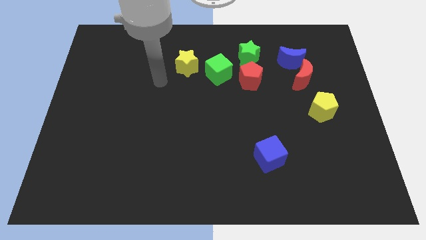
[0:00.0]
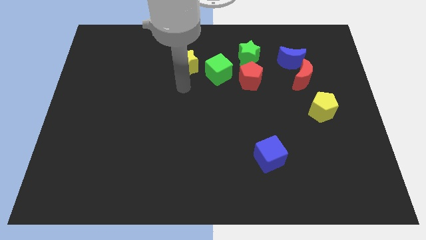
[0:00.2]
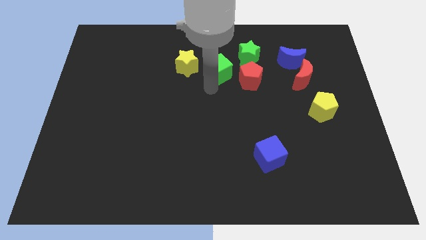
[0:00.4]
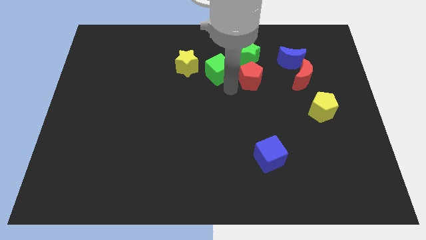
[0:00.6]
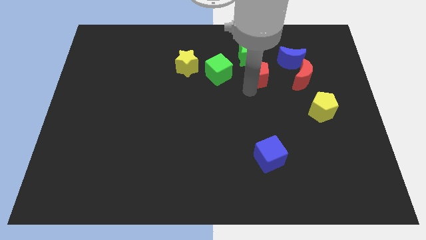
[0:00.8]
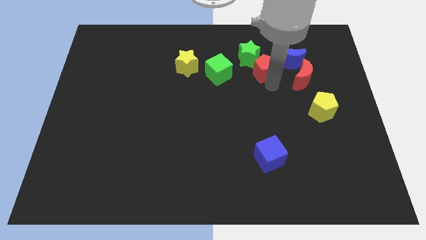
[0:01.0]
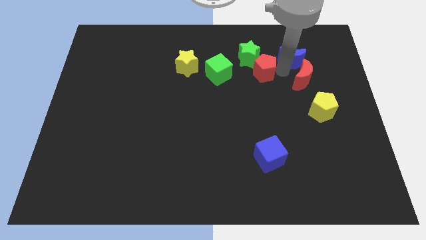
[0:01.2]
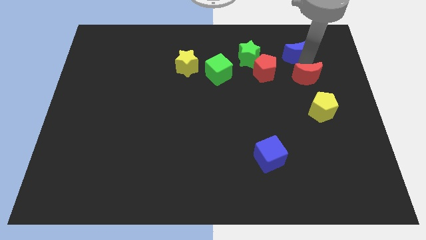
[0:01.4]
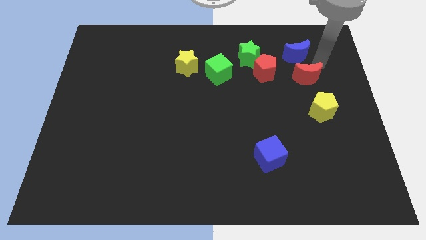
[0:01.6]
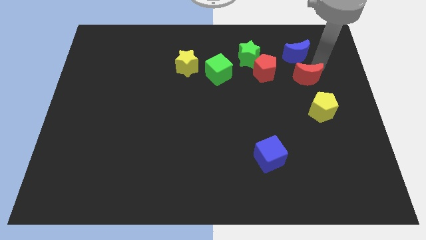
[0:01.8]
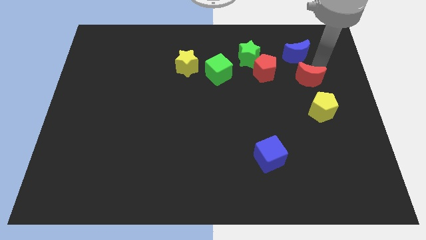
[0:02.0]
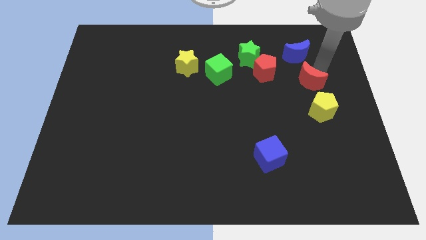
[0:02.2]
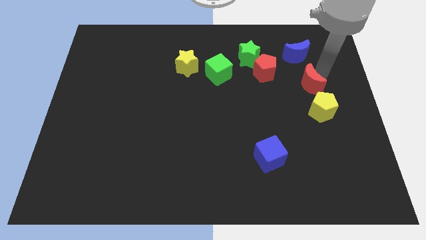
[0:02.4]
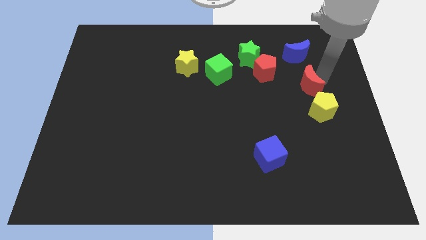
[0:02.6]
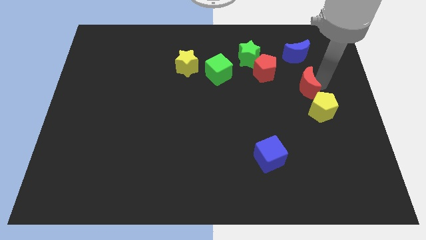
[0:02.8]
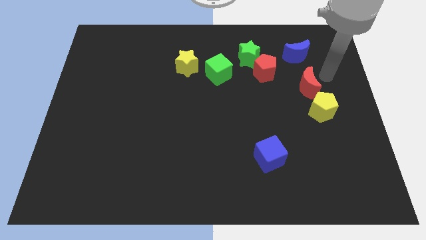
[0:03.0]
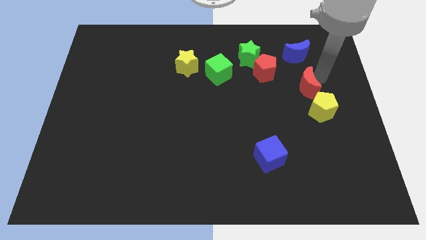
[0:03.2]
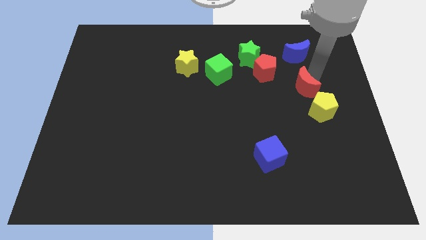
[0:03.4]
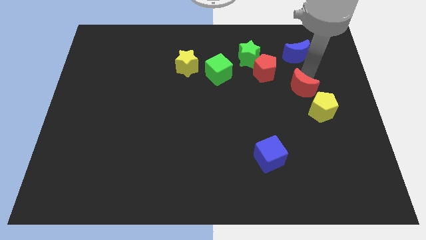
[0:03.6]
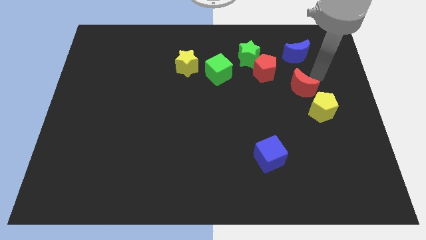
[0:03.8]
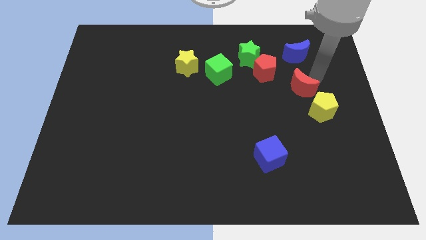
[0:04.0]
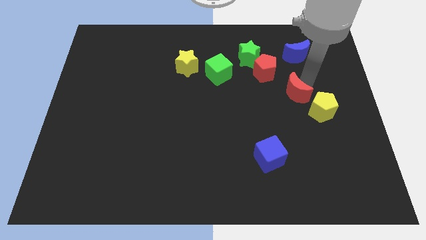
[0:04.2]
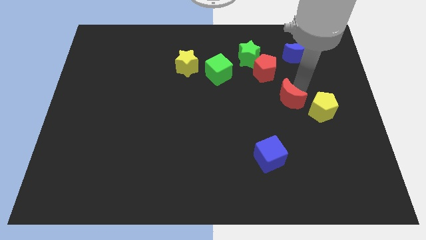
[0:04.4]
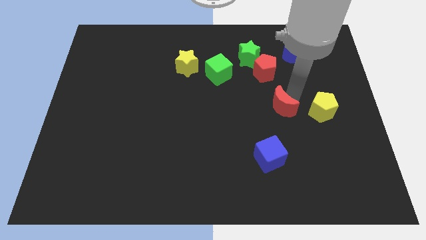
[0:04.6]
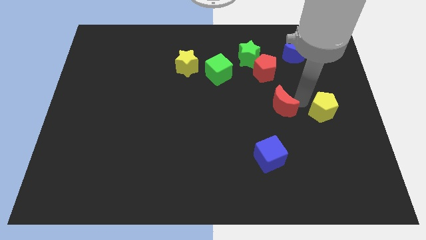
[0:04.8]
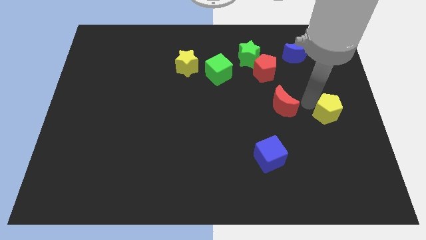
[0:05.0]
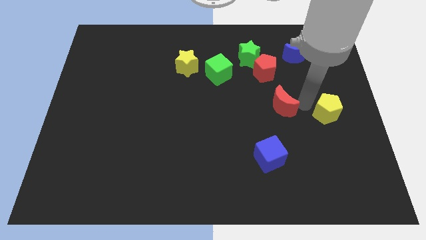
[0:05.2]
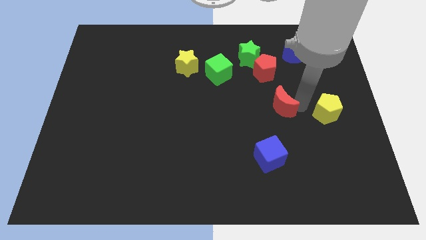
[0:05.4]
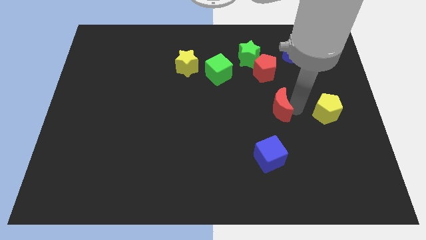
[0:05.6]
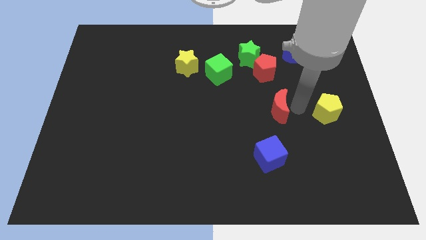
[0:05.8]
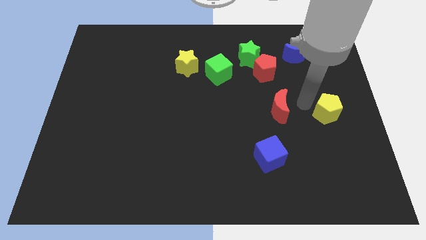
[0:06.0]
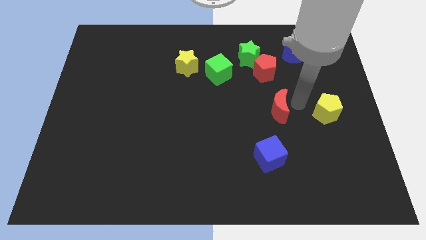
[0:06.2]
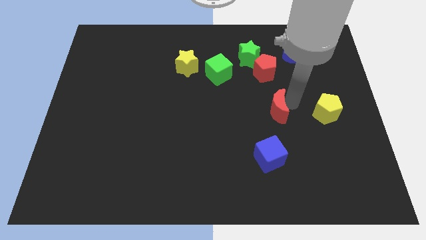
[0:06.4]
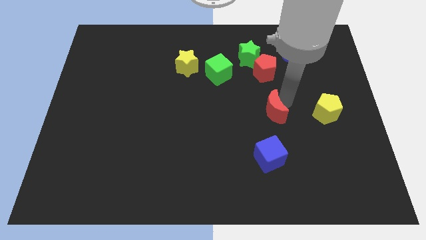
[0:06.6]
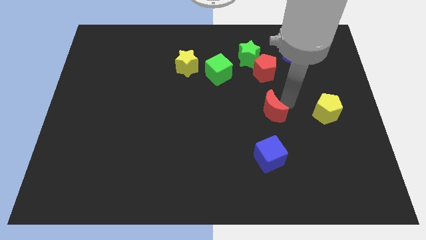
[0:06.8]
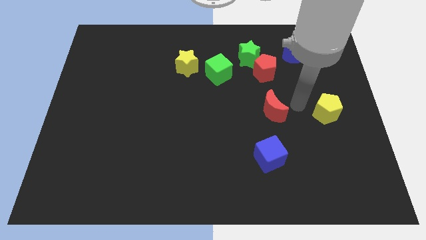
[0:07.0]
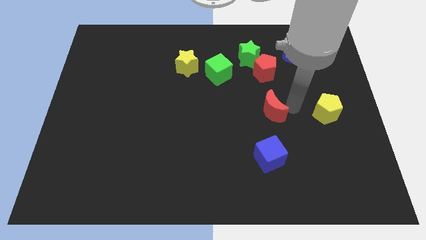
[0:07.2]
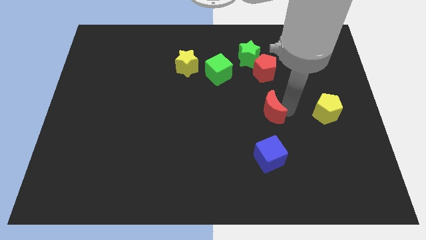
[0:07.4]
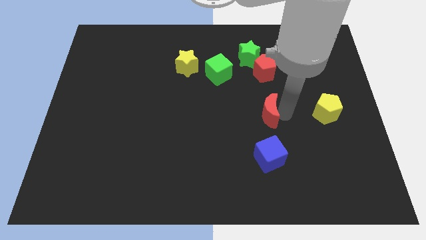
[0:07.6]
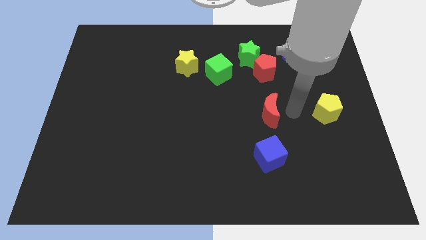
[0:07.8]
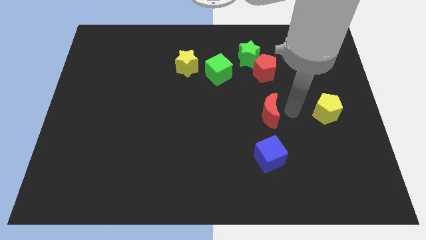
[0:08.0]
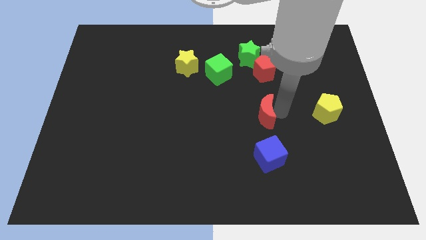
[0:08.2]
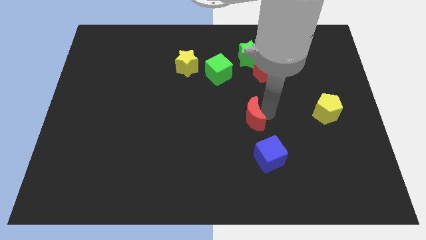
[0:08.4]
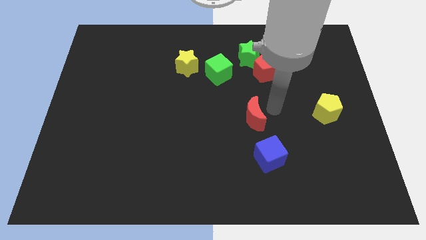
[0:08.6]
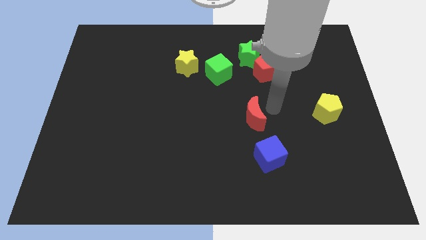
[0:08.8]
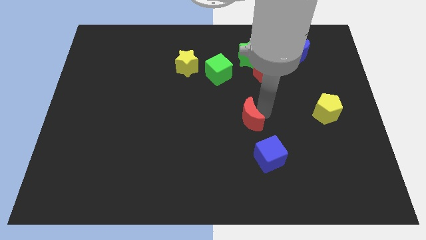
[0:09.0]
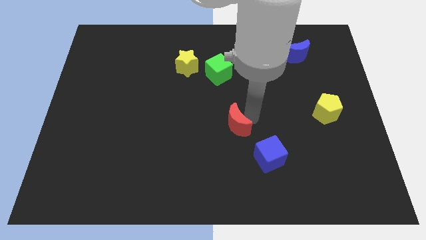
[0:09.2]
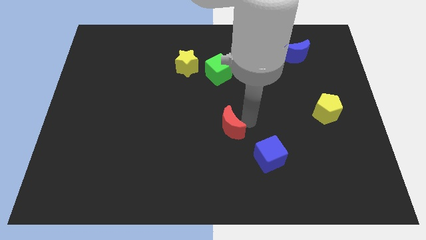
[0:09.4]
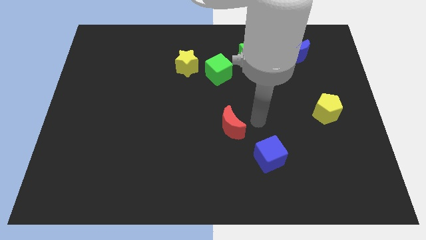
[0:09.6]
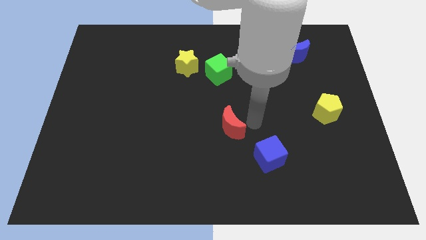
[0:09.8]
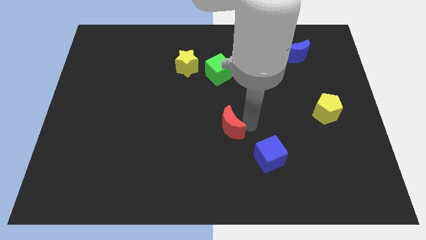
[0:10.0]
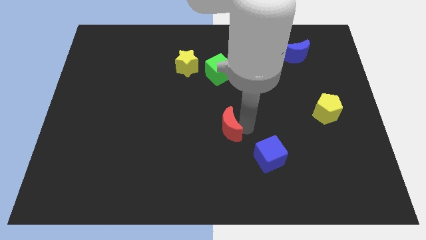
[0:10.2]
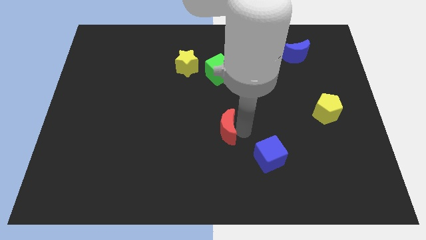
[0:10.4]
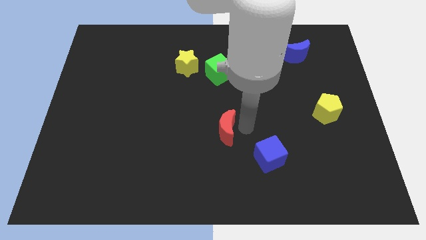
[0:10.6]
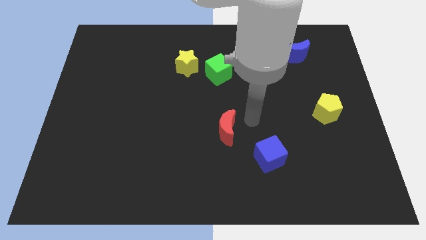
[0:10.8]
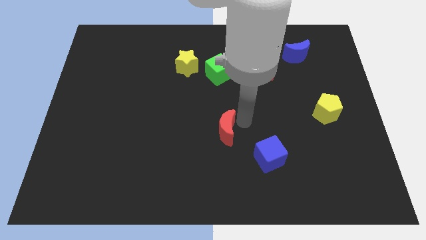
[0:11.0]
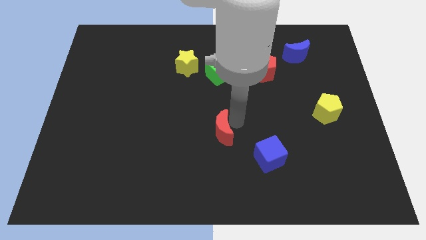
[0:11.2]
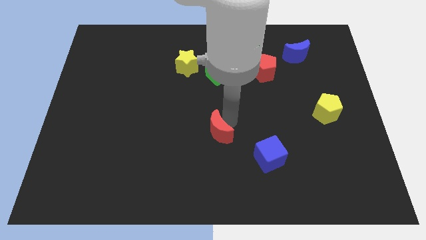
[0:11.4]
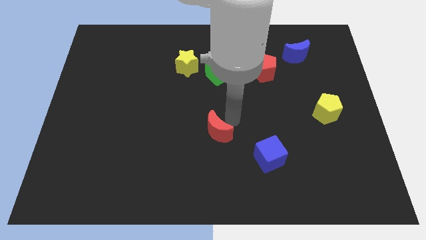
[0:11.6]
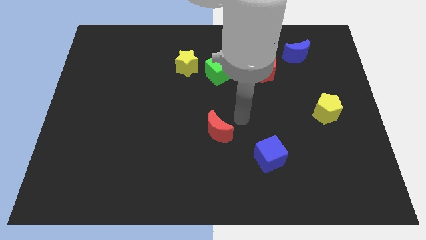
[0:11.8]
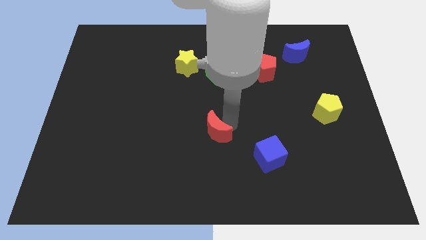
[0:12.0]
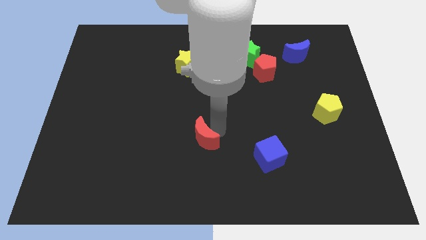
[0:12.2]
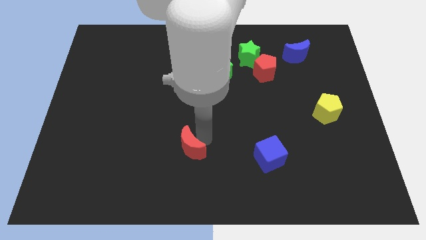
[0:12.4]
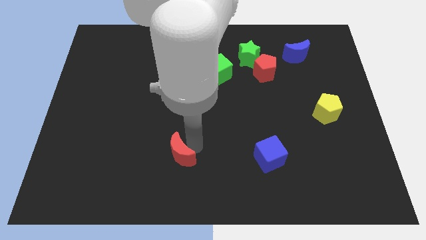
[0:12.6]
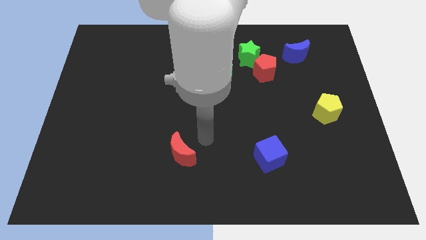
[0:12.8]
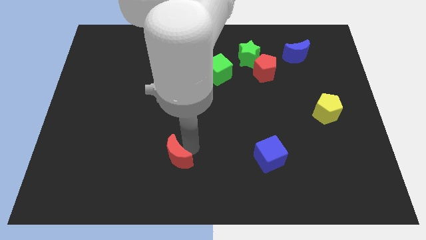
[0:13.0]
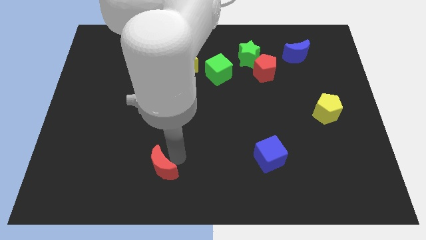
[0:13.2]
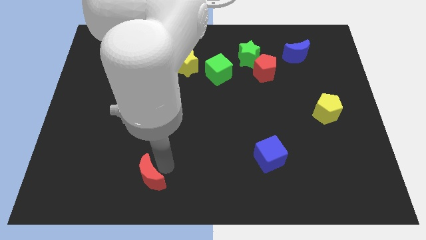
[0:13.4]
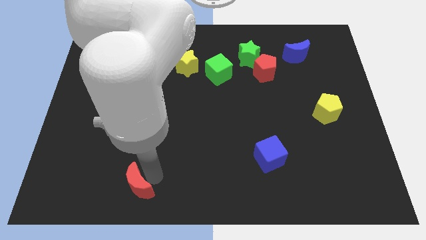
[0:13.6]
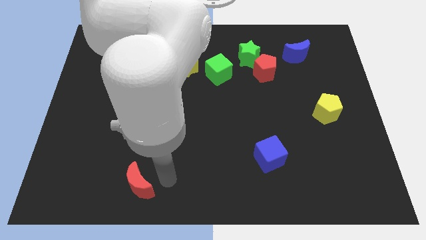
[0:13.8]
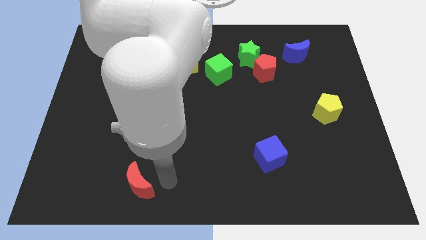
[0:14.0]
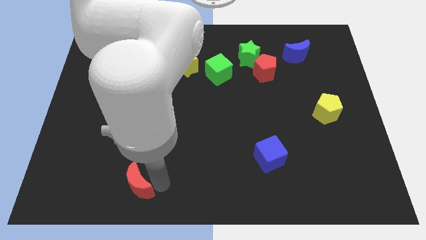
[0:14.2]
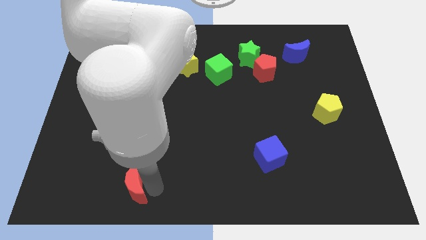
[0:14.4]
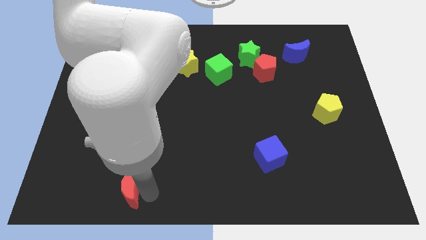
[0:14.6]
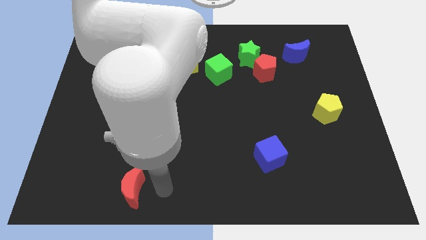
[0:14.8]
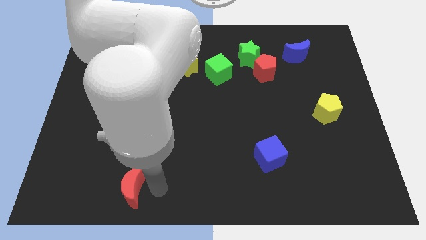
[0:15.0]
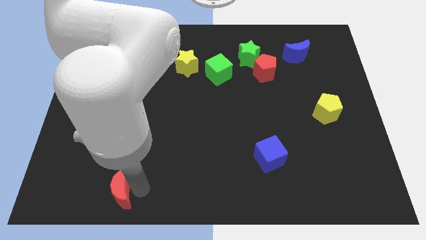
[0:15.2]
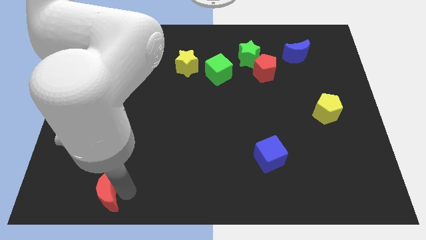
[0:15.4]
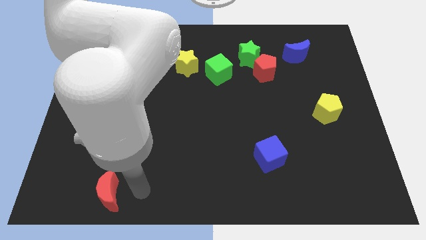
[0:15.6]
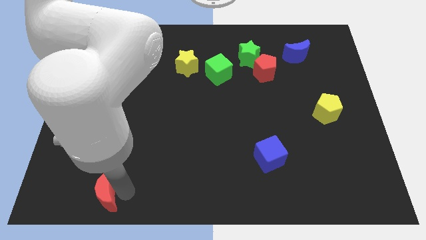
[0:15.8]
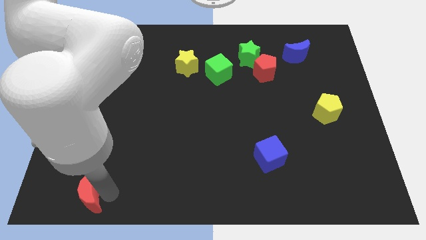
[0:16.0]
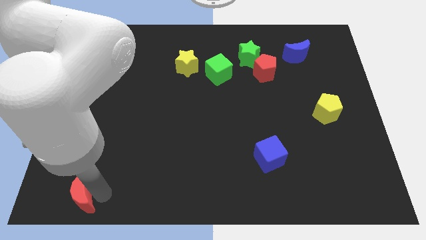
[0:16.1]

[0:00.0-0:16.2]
push the red moon to the bottom left corner
